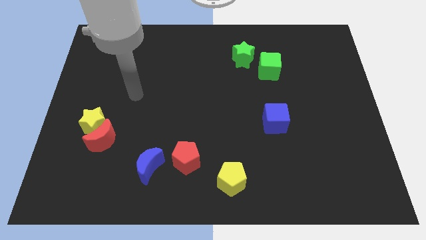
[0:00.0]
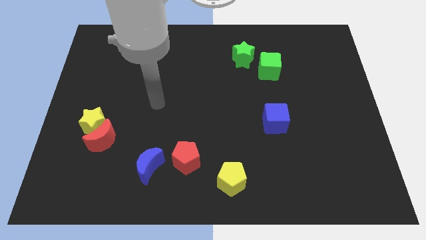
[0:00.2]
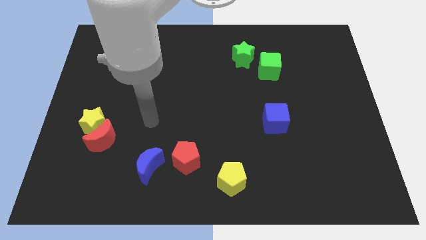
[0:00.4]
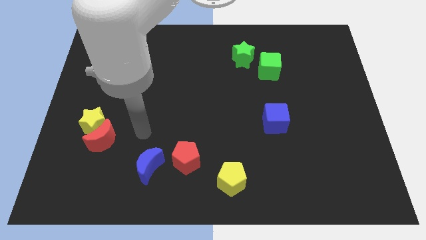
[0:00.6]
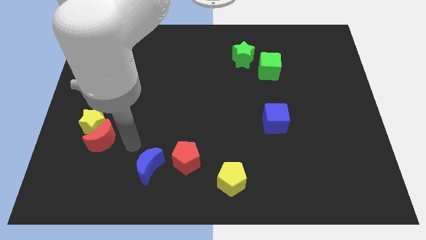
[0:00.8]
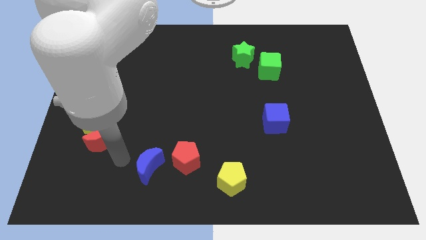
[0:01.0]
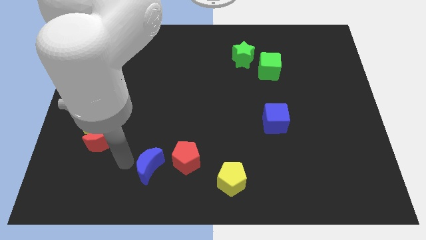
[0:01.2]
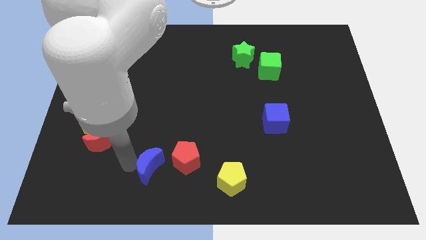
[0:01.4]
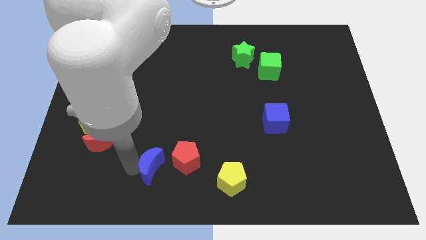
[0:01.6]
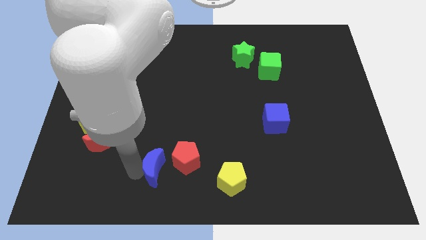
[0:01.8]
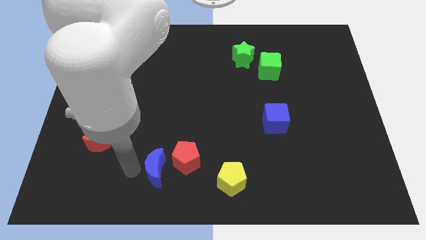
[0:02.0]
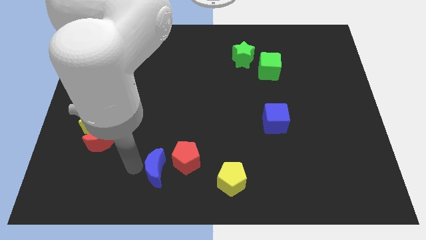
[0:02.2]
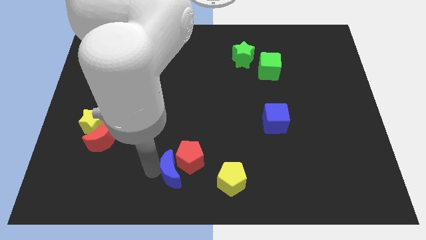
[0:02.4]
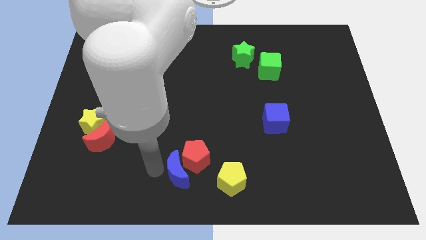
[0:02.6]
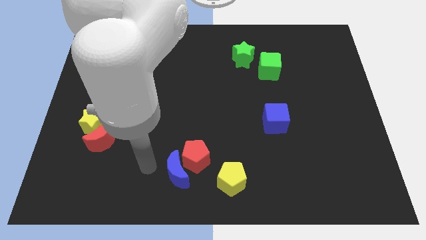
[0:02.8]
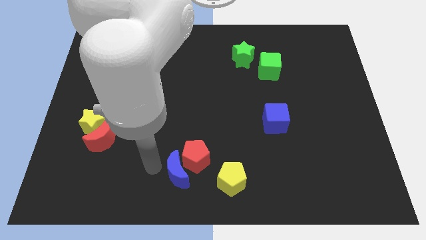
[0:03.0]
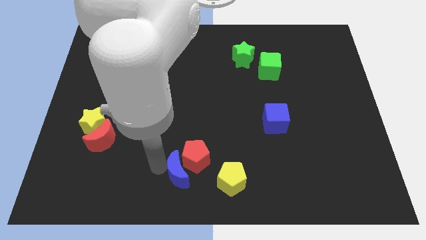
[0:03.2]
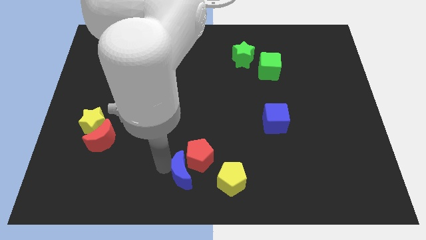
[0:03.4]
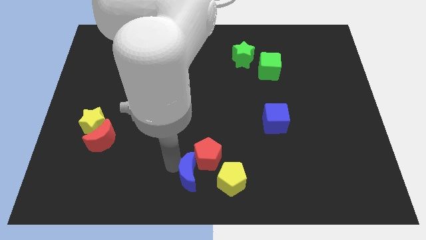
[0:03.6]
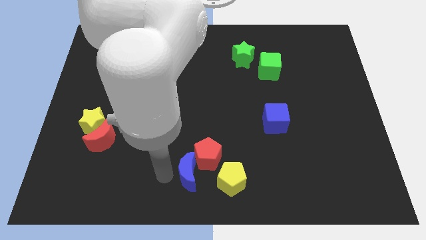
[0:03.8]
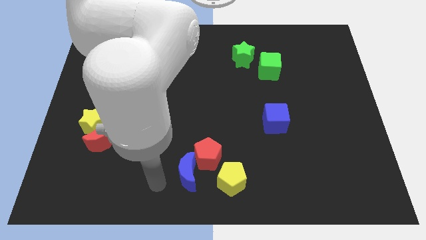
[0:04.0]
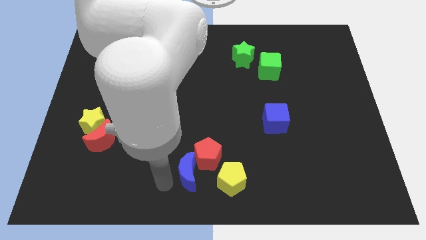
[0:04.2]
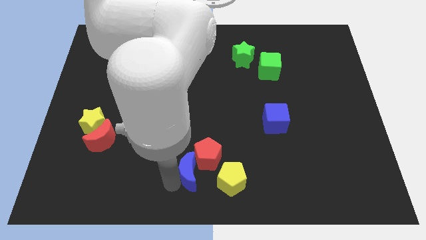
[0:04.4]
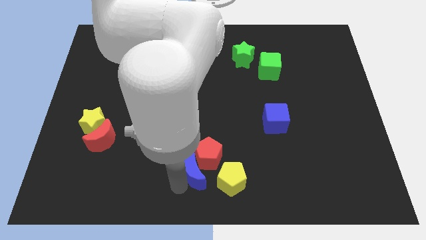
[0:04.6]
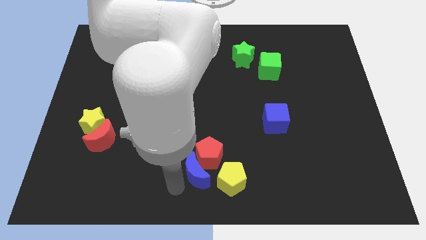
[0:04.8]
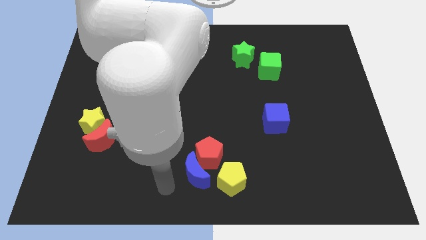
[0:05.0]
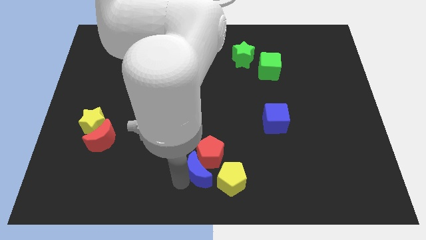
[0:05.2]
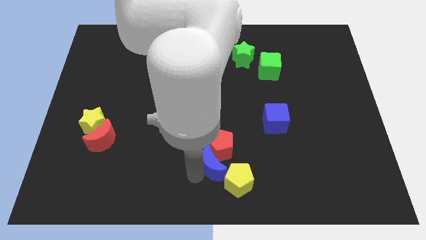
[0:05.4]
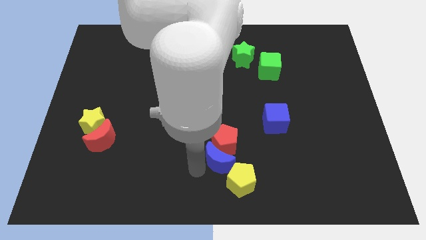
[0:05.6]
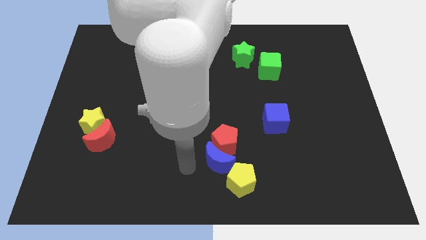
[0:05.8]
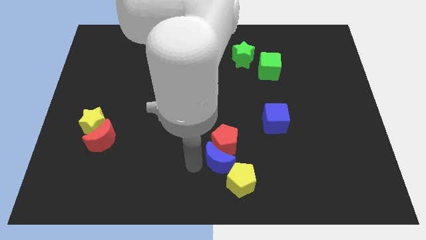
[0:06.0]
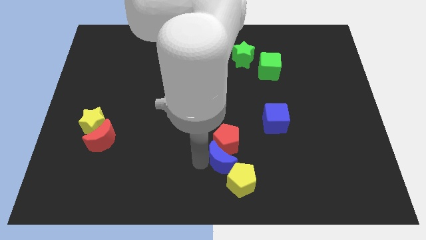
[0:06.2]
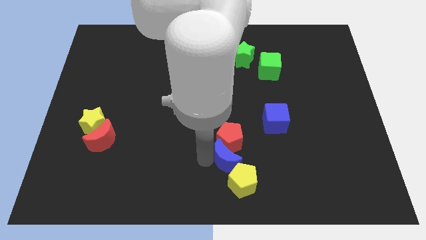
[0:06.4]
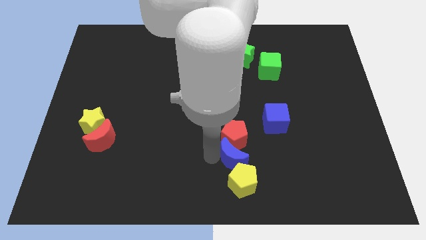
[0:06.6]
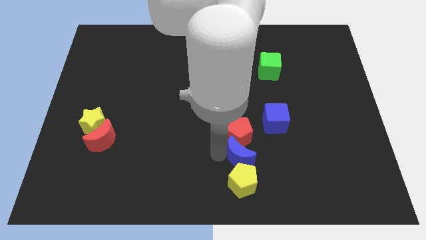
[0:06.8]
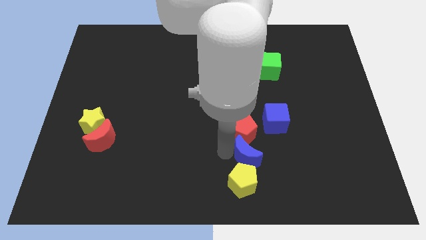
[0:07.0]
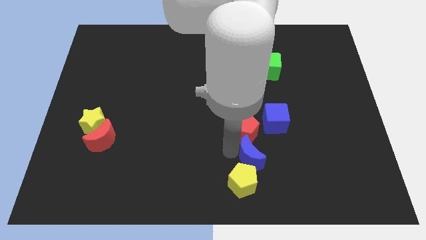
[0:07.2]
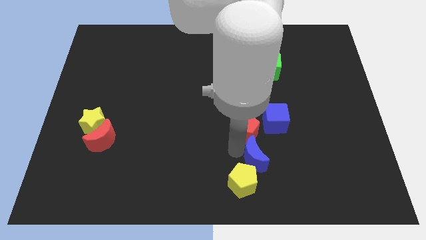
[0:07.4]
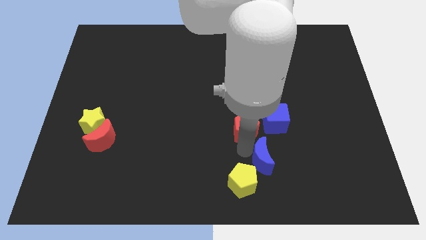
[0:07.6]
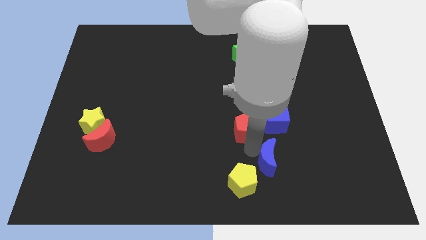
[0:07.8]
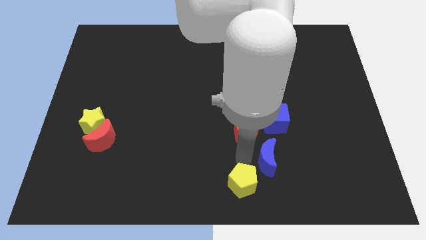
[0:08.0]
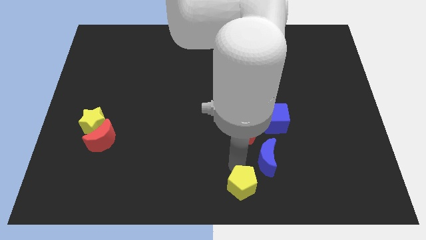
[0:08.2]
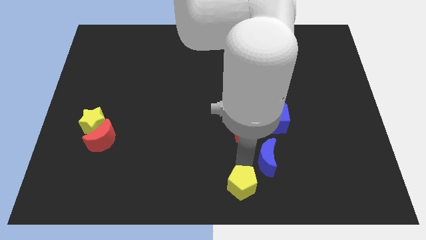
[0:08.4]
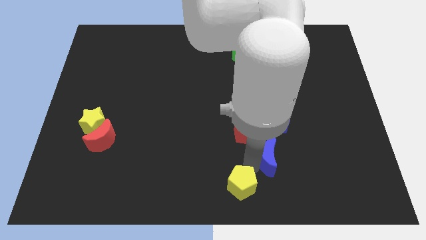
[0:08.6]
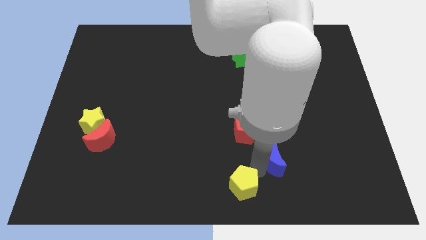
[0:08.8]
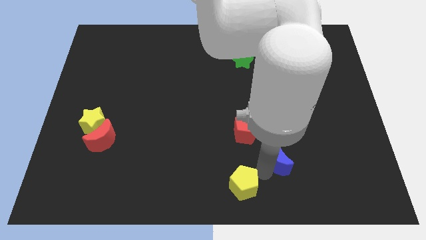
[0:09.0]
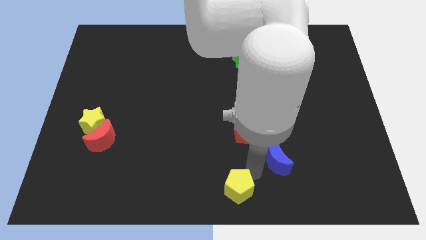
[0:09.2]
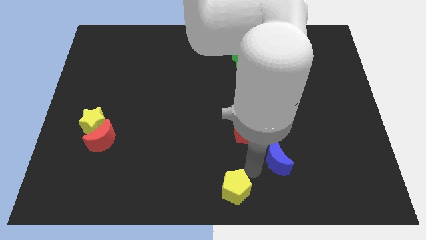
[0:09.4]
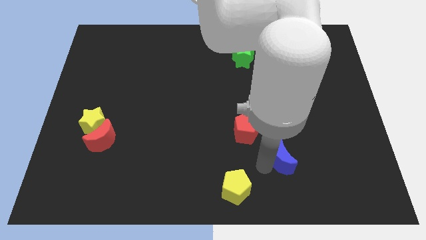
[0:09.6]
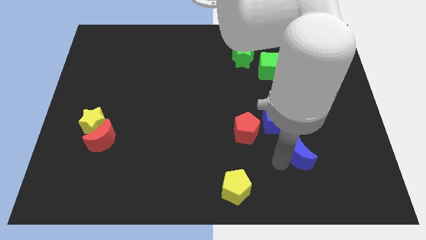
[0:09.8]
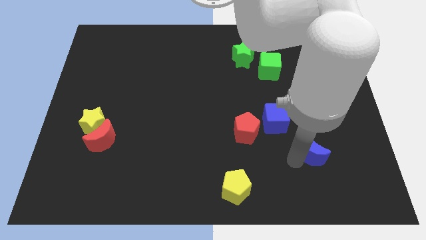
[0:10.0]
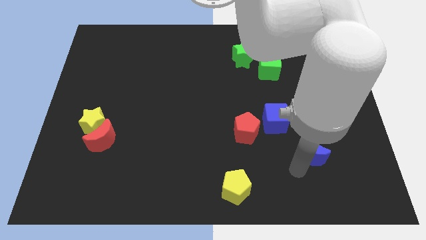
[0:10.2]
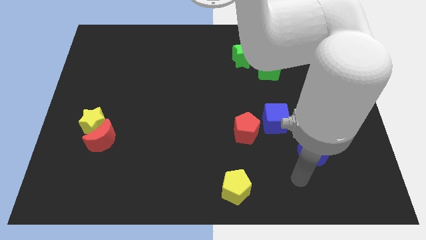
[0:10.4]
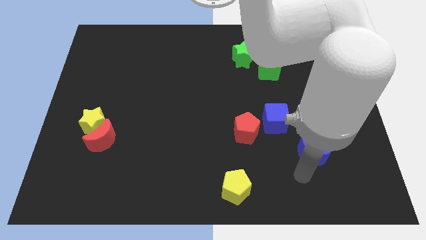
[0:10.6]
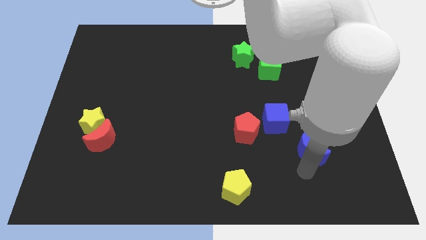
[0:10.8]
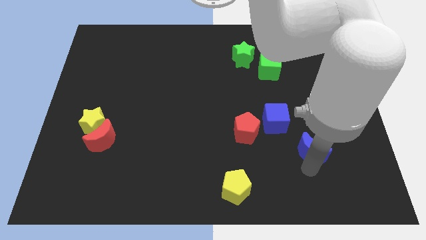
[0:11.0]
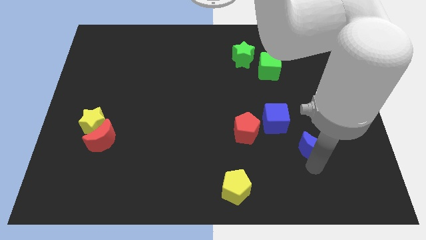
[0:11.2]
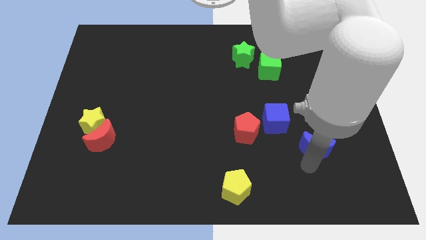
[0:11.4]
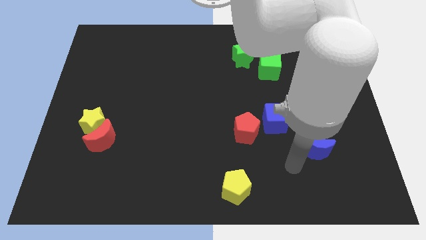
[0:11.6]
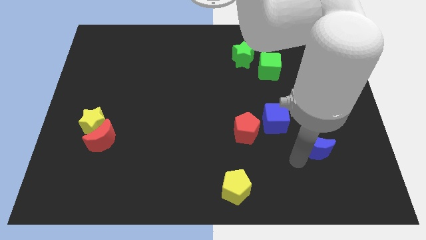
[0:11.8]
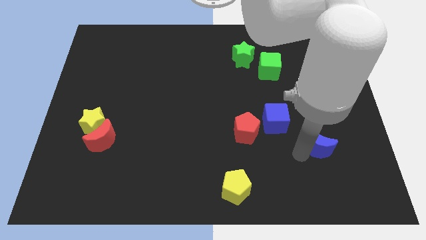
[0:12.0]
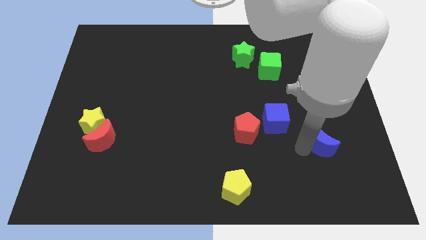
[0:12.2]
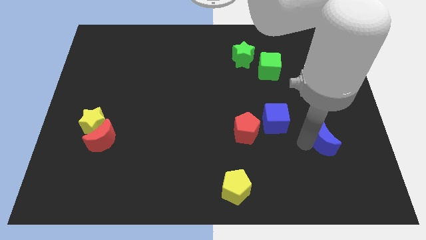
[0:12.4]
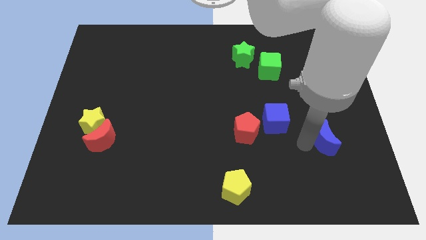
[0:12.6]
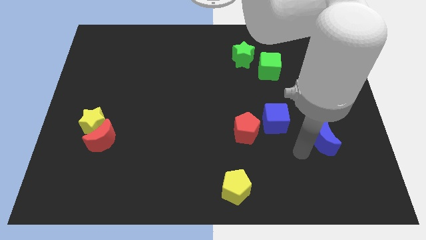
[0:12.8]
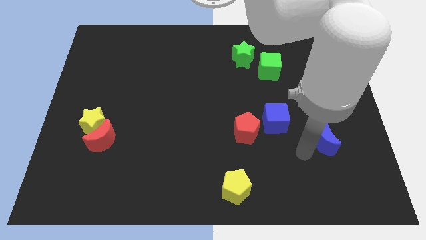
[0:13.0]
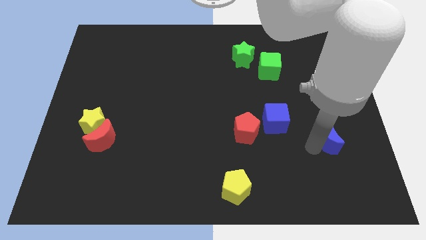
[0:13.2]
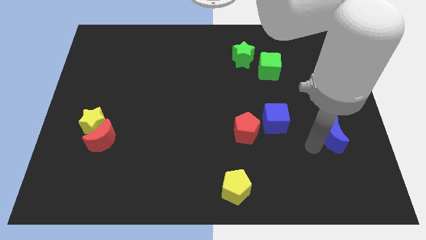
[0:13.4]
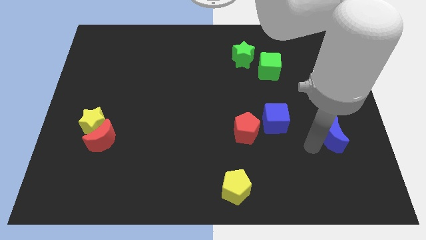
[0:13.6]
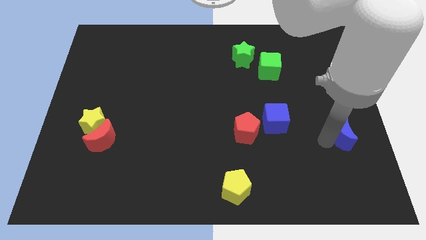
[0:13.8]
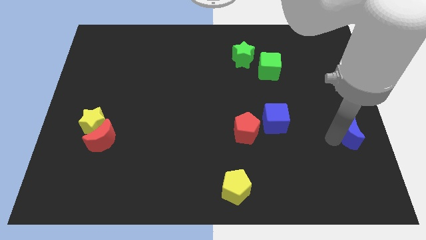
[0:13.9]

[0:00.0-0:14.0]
push the blue moon to the center right
